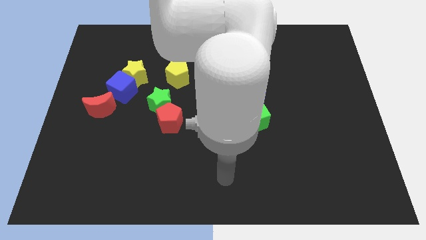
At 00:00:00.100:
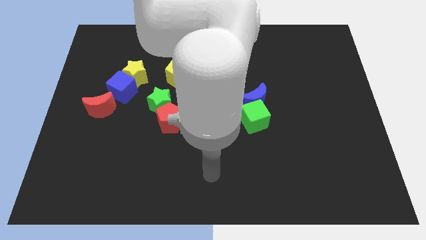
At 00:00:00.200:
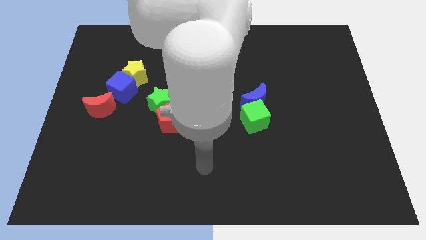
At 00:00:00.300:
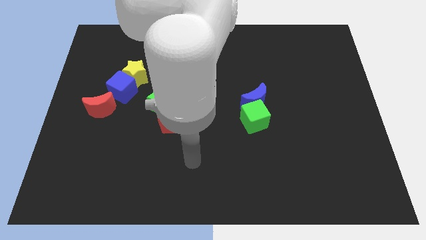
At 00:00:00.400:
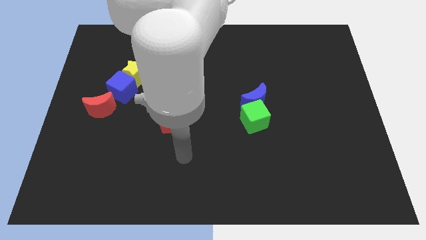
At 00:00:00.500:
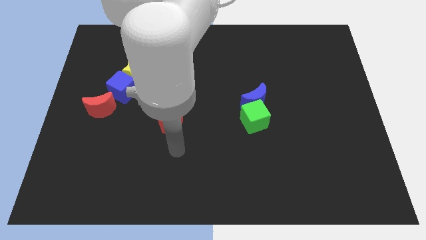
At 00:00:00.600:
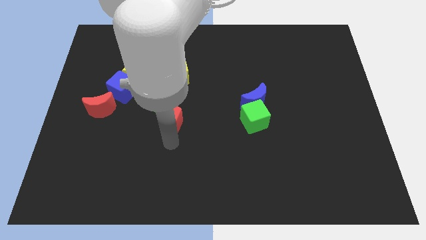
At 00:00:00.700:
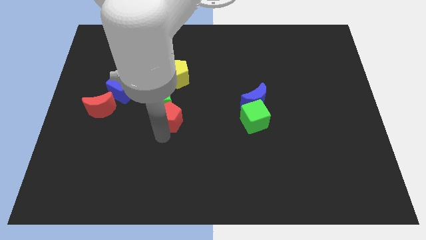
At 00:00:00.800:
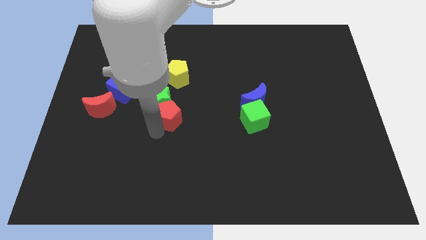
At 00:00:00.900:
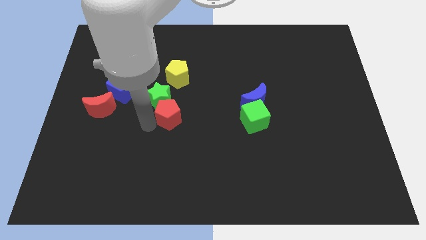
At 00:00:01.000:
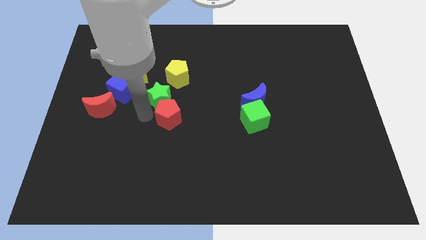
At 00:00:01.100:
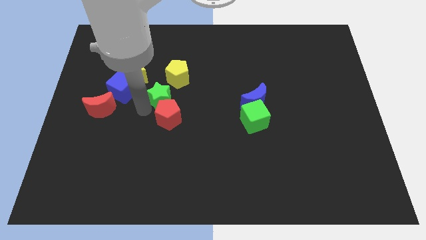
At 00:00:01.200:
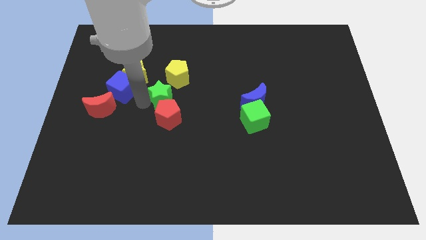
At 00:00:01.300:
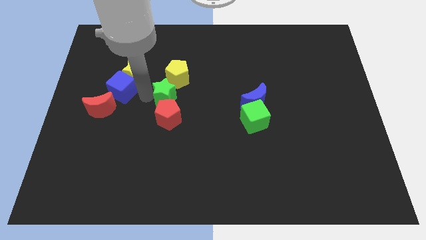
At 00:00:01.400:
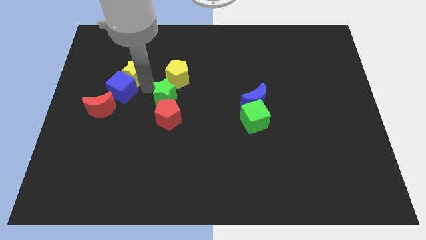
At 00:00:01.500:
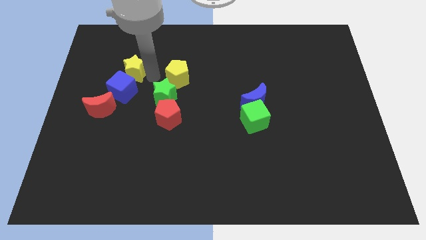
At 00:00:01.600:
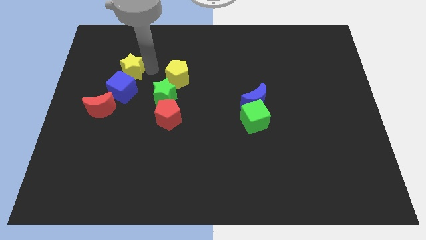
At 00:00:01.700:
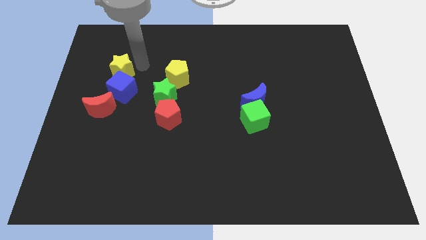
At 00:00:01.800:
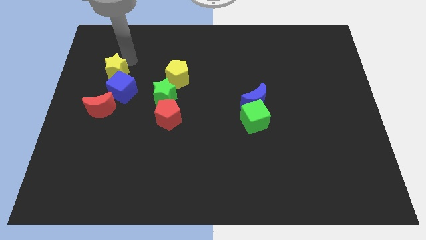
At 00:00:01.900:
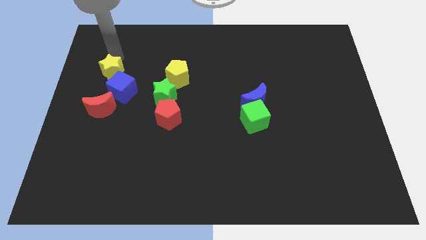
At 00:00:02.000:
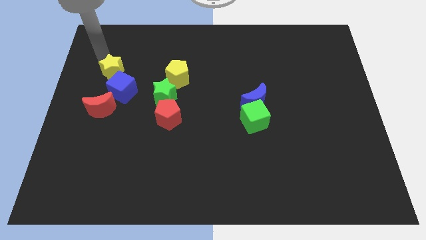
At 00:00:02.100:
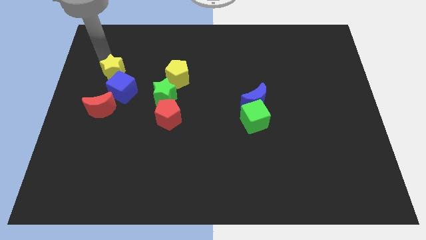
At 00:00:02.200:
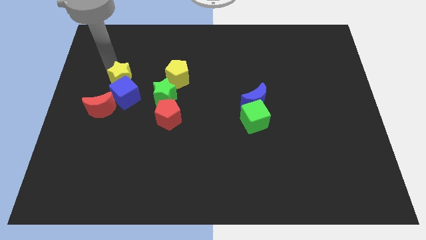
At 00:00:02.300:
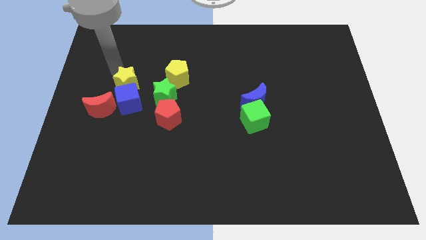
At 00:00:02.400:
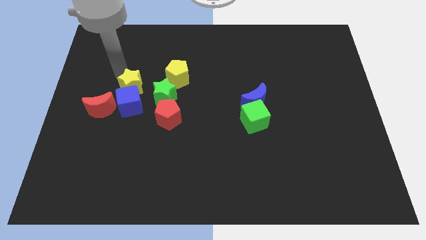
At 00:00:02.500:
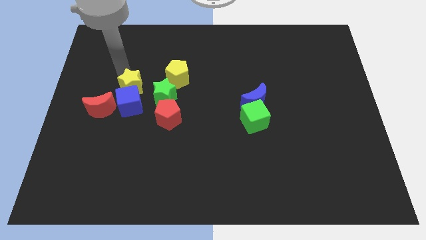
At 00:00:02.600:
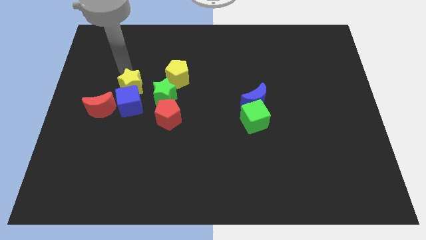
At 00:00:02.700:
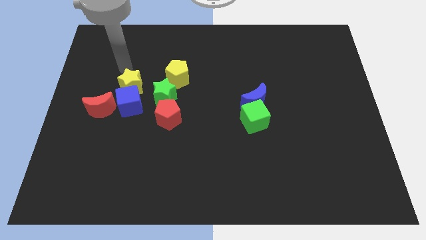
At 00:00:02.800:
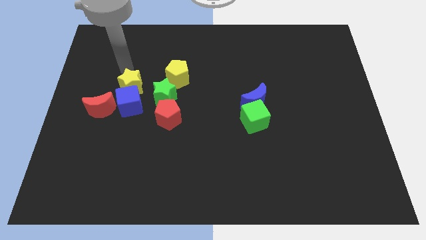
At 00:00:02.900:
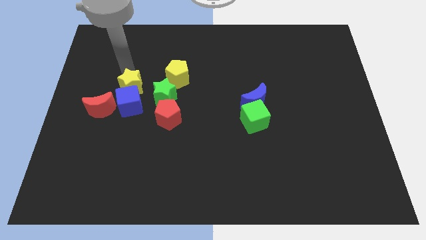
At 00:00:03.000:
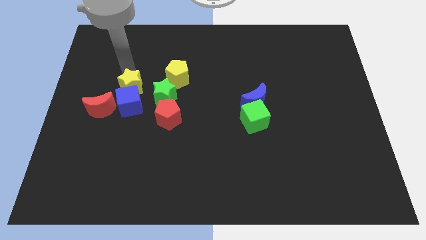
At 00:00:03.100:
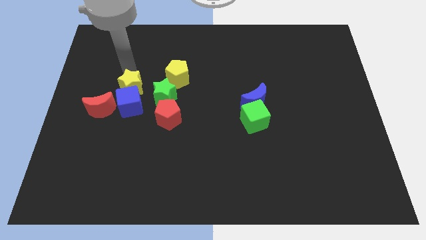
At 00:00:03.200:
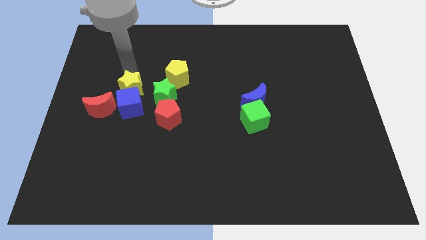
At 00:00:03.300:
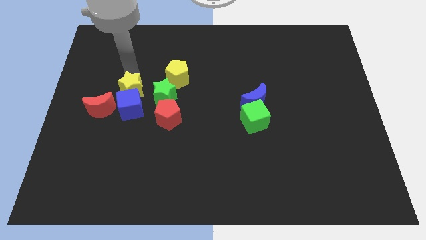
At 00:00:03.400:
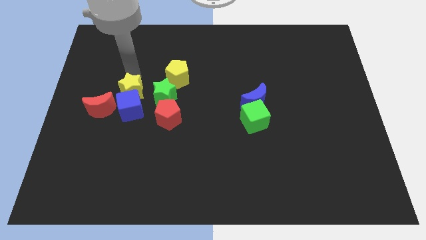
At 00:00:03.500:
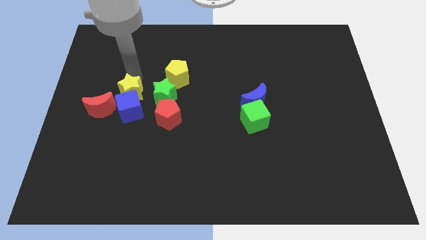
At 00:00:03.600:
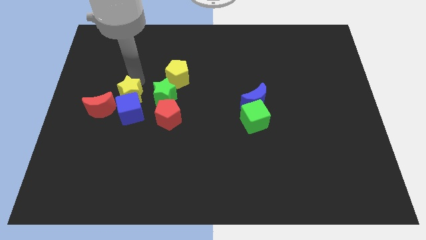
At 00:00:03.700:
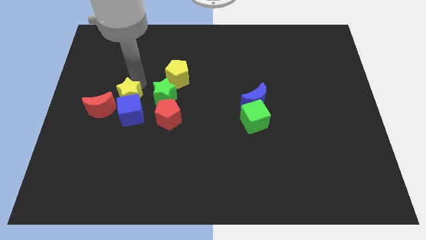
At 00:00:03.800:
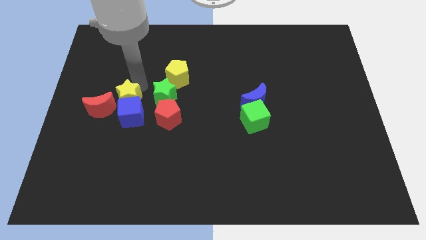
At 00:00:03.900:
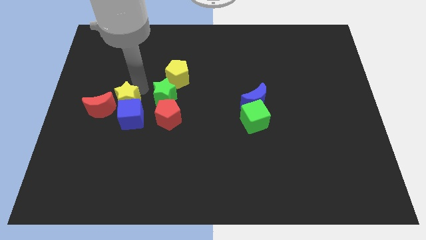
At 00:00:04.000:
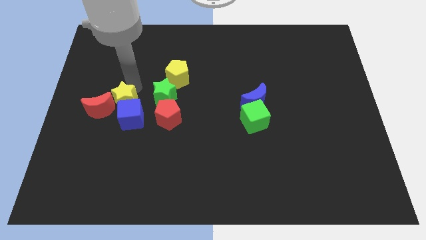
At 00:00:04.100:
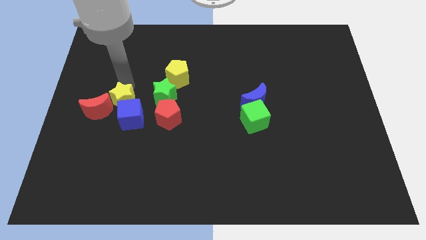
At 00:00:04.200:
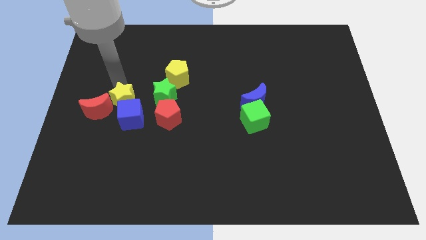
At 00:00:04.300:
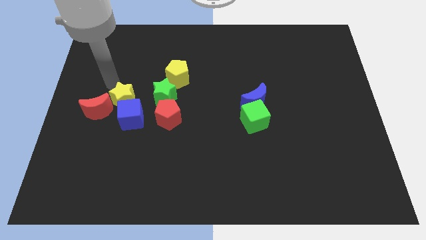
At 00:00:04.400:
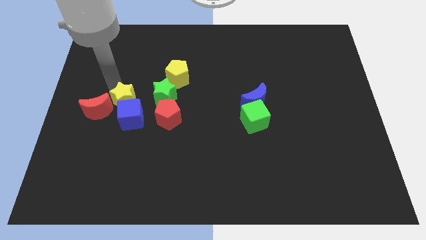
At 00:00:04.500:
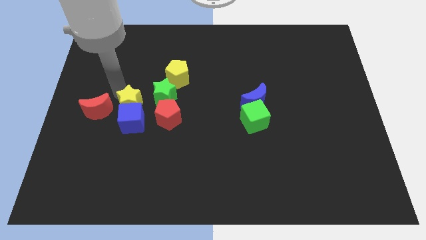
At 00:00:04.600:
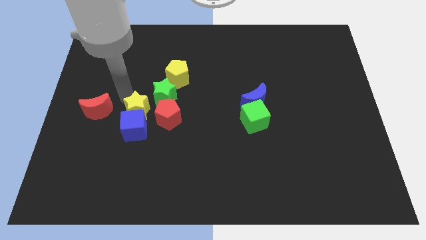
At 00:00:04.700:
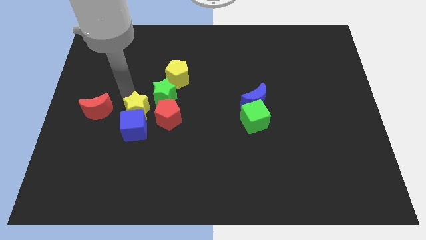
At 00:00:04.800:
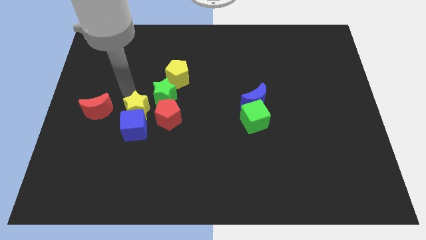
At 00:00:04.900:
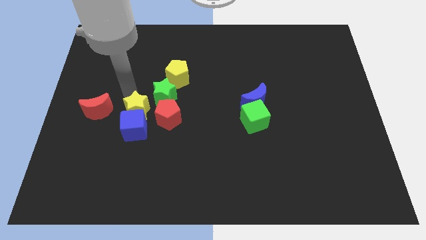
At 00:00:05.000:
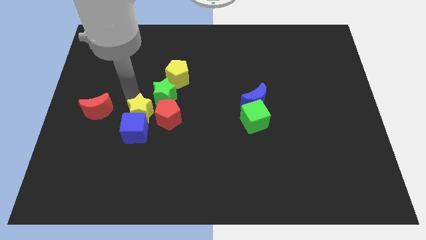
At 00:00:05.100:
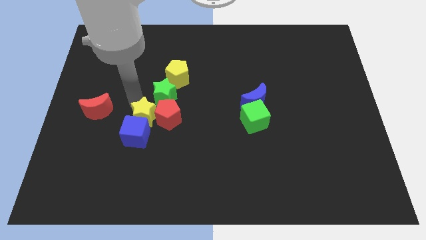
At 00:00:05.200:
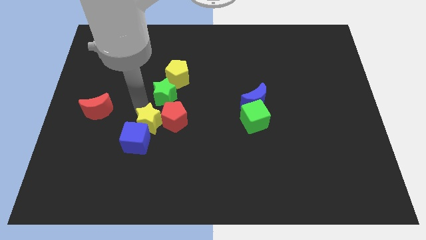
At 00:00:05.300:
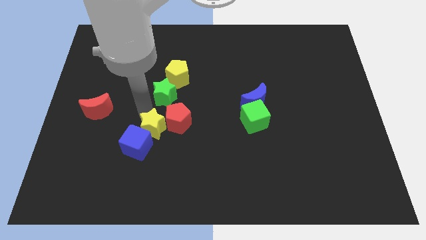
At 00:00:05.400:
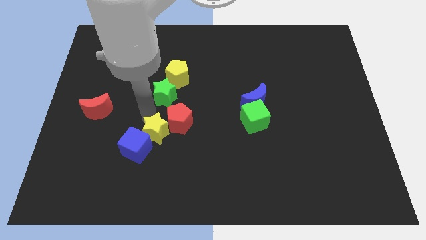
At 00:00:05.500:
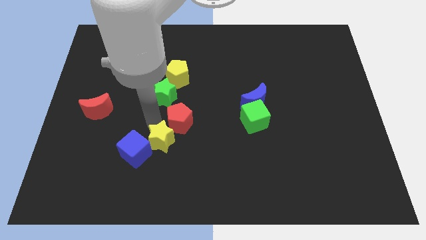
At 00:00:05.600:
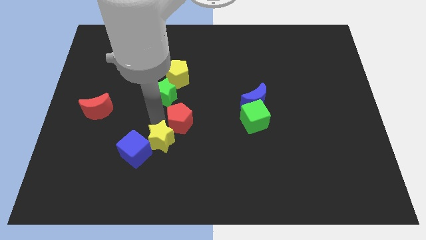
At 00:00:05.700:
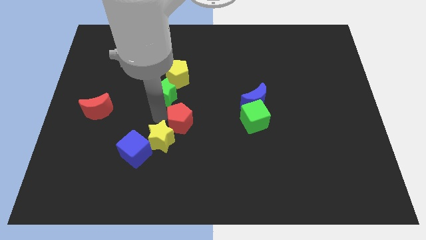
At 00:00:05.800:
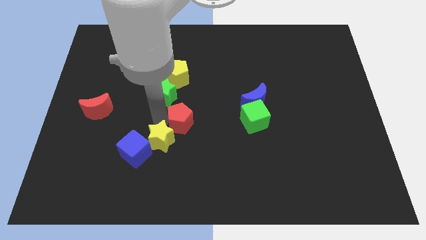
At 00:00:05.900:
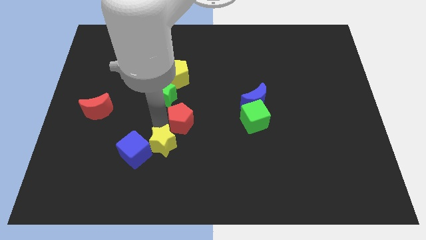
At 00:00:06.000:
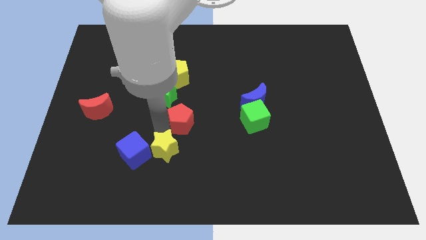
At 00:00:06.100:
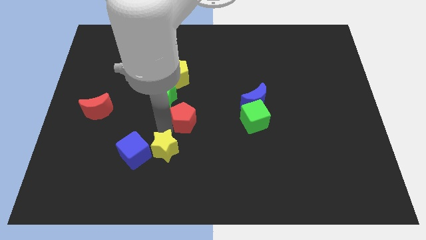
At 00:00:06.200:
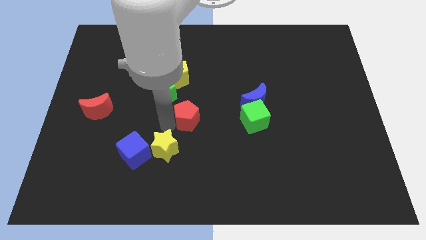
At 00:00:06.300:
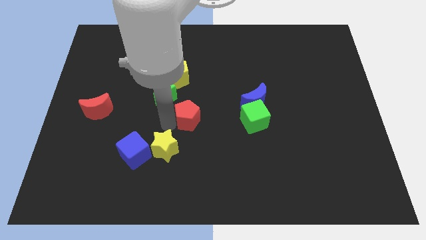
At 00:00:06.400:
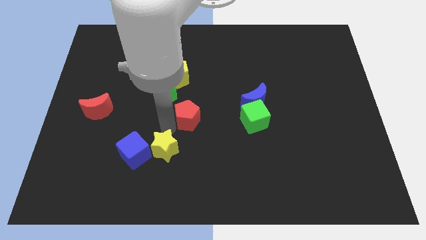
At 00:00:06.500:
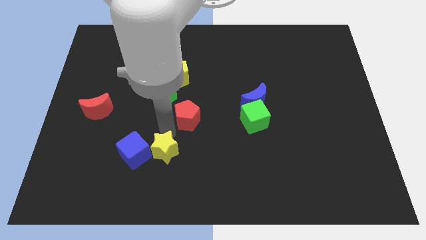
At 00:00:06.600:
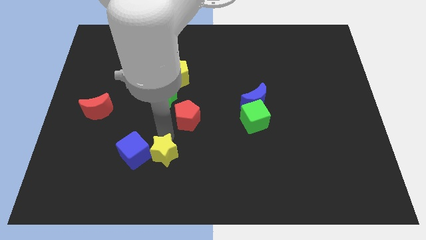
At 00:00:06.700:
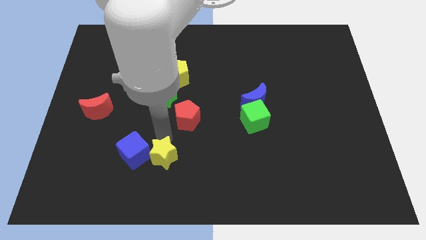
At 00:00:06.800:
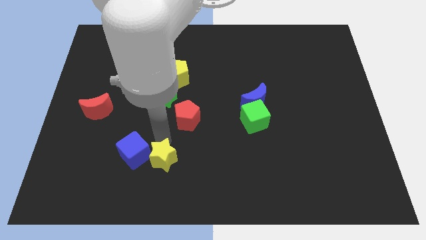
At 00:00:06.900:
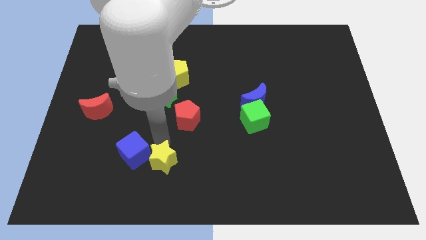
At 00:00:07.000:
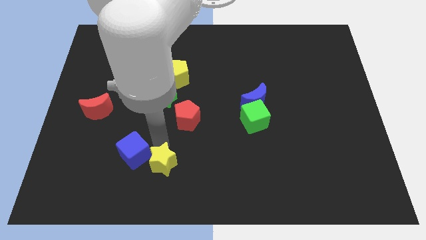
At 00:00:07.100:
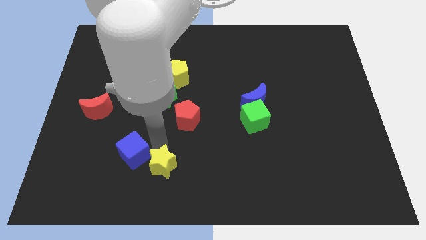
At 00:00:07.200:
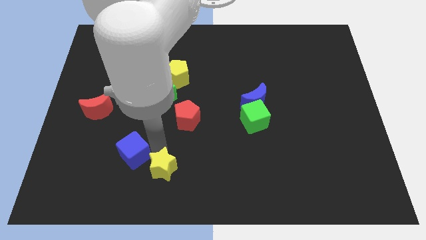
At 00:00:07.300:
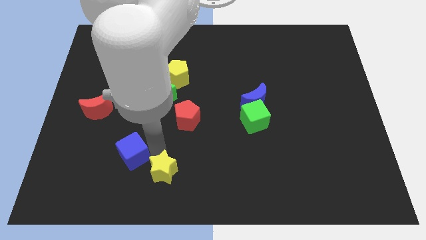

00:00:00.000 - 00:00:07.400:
put the yellow star to the bottom side
